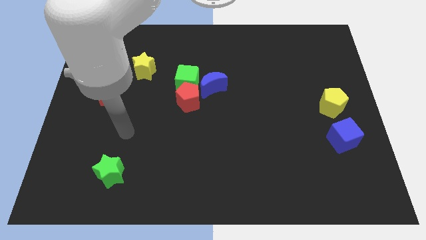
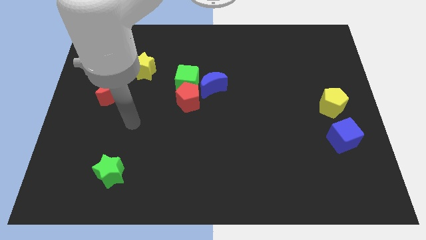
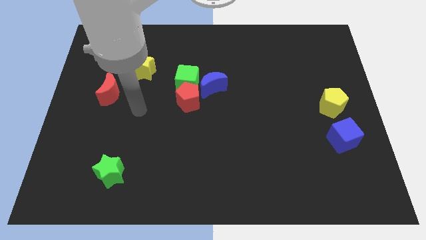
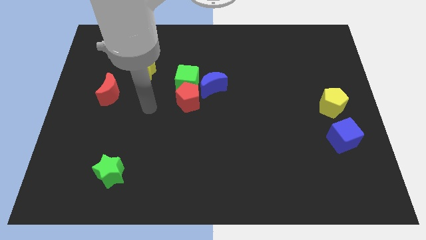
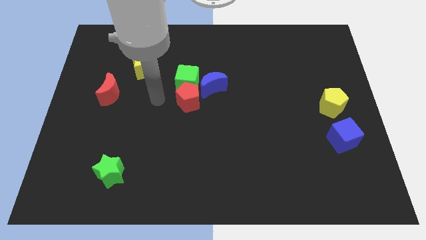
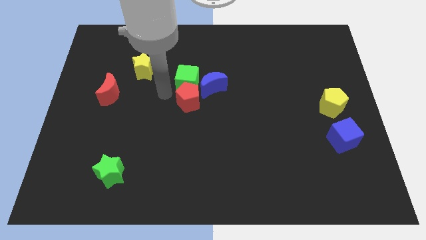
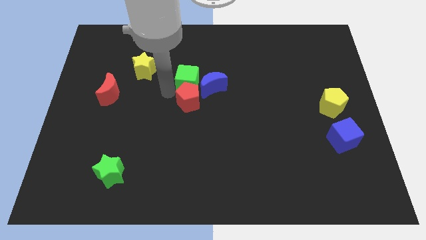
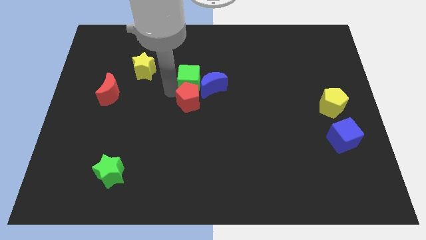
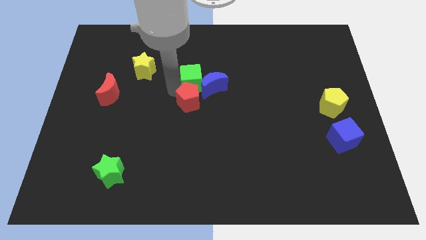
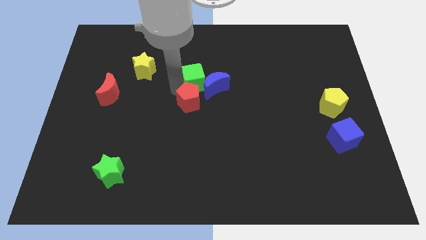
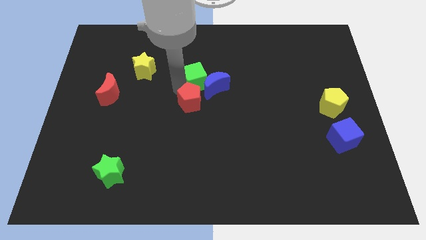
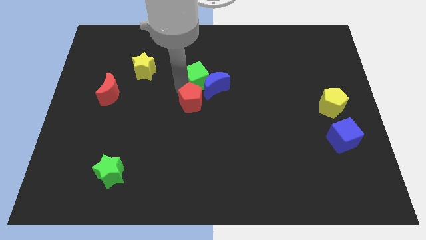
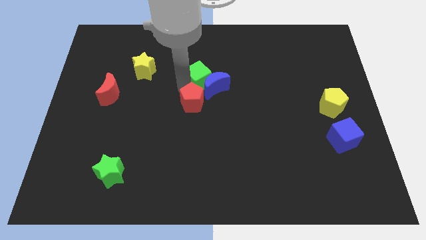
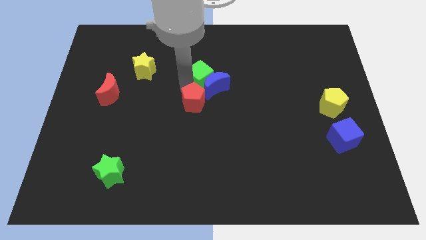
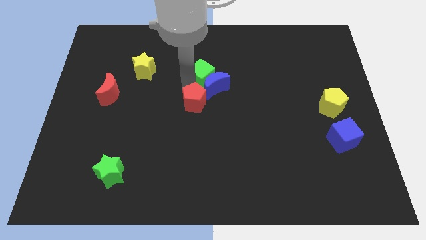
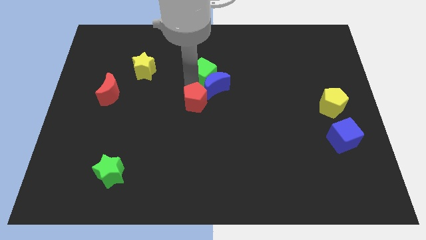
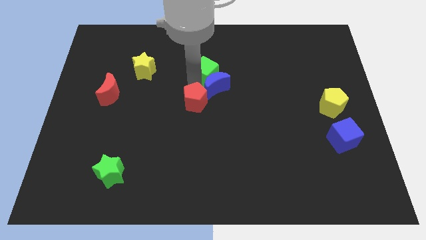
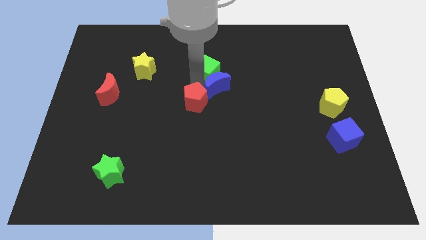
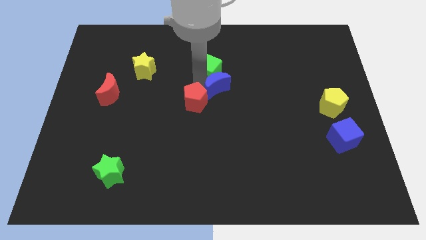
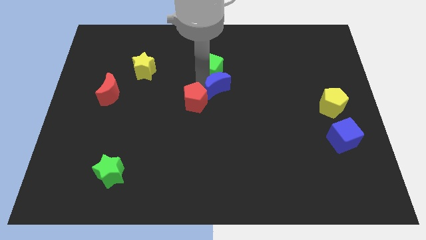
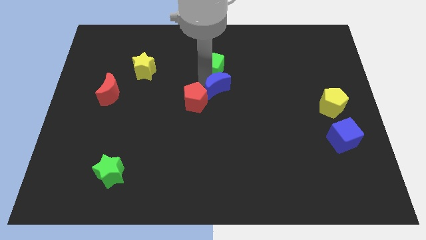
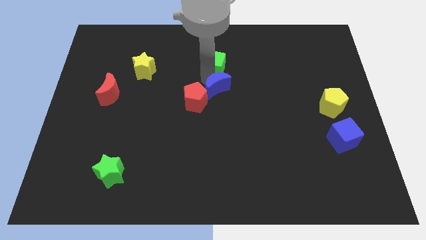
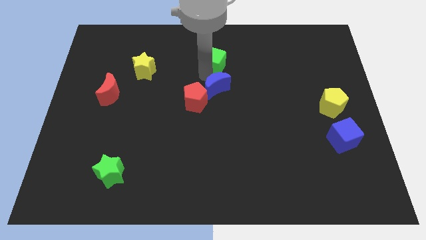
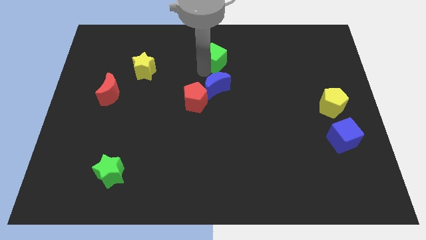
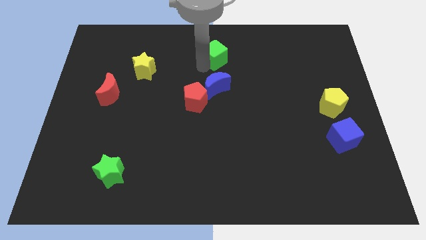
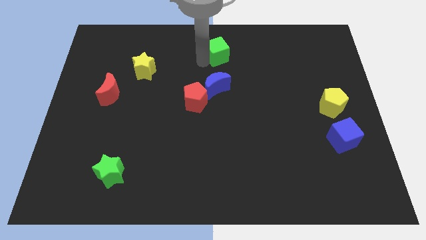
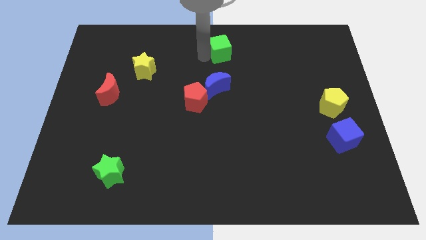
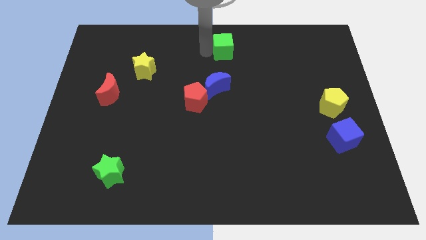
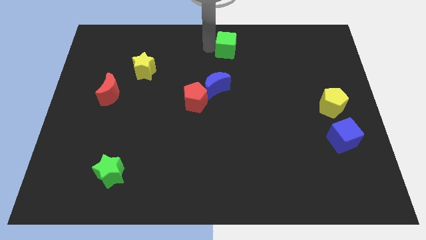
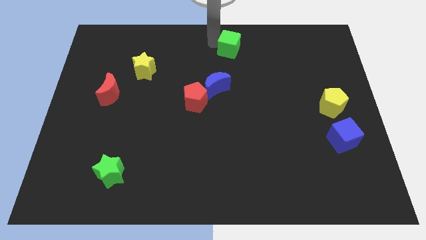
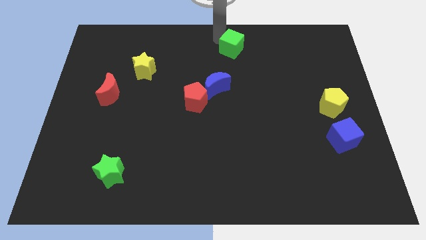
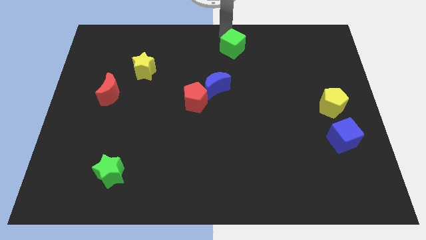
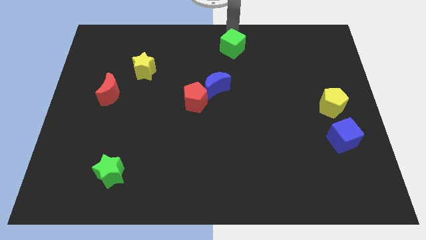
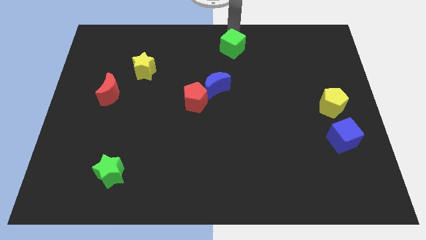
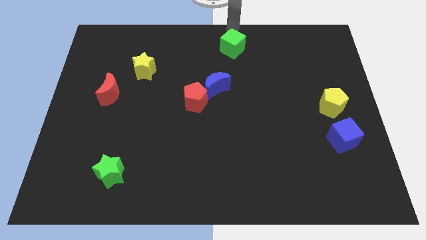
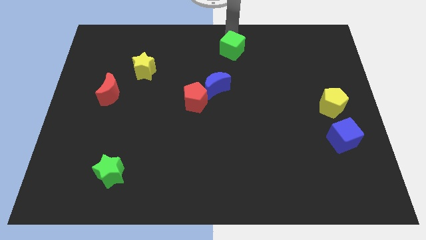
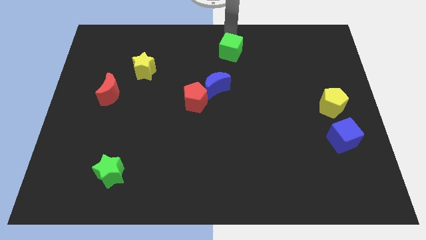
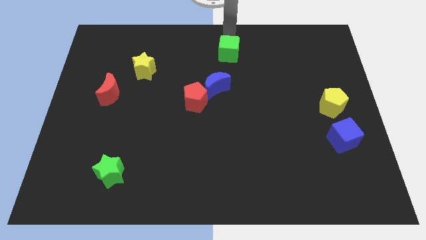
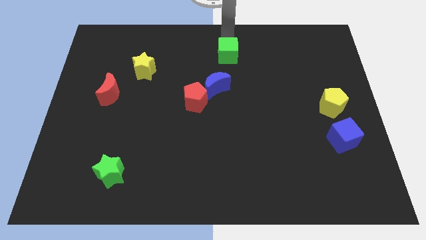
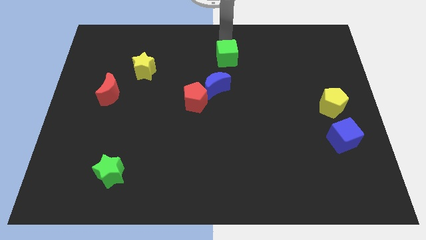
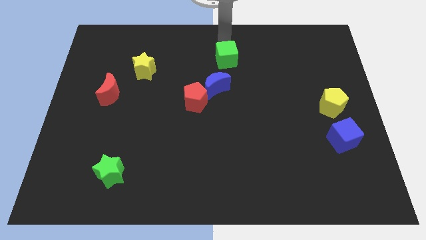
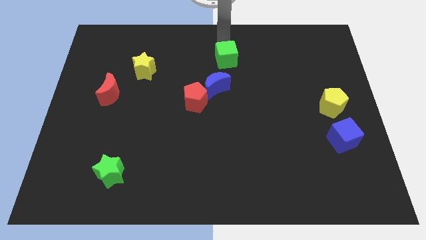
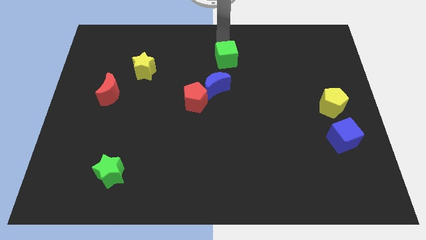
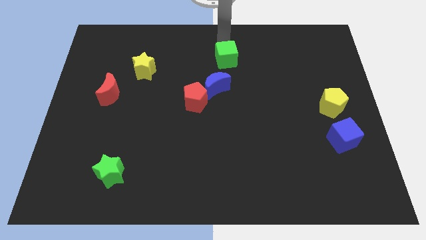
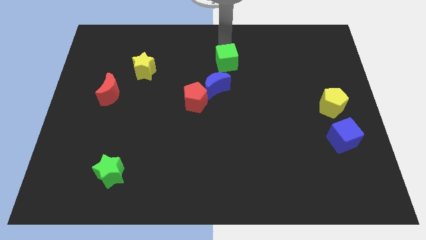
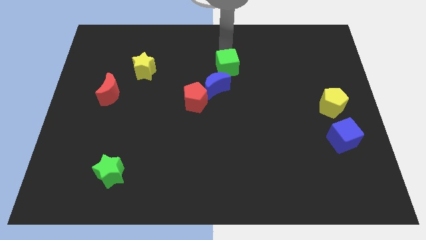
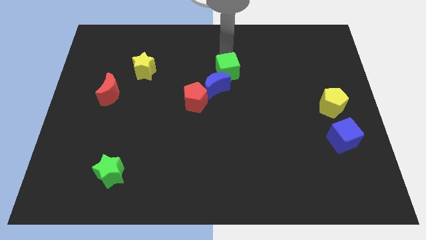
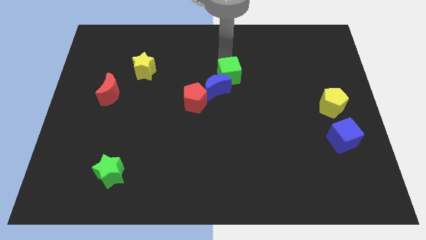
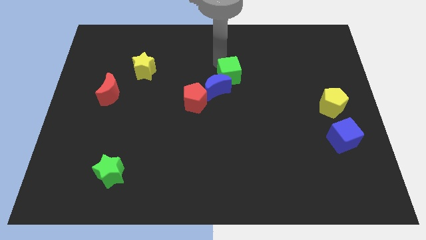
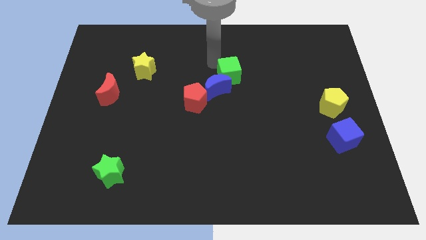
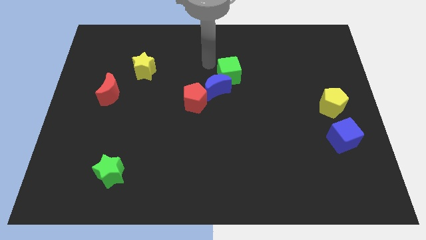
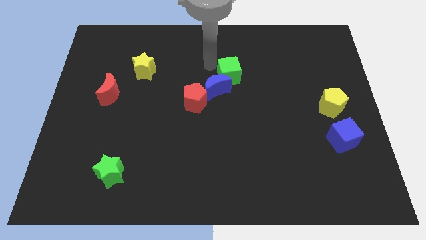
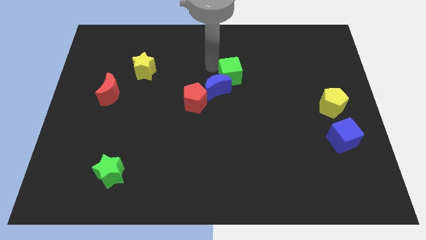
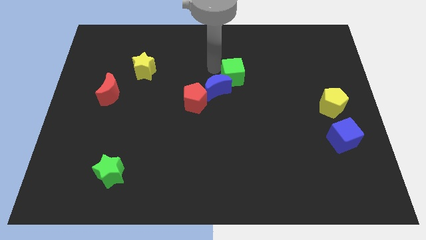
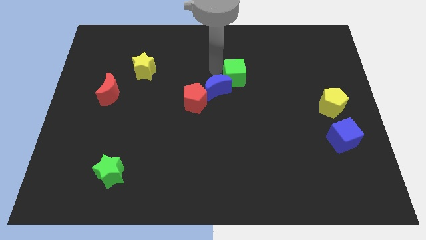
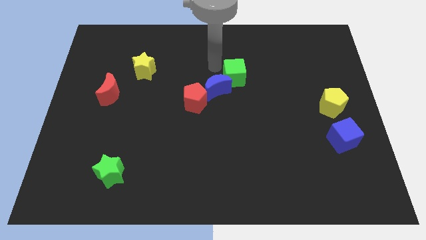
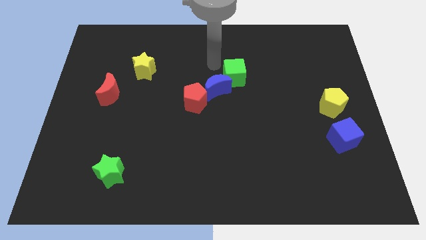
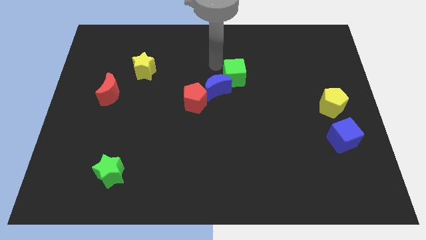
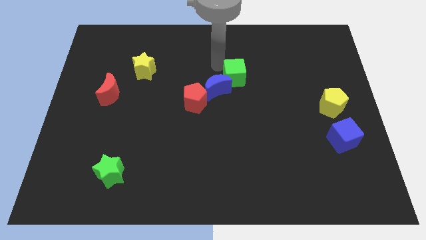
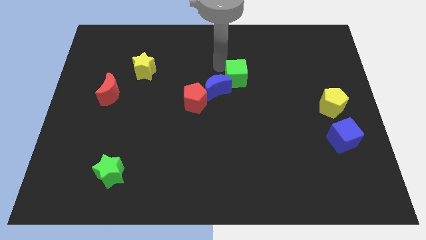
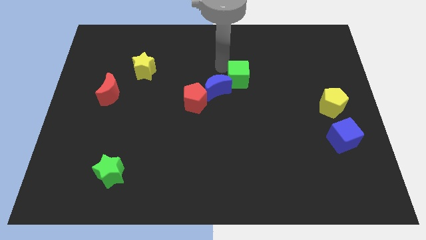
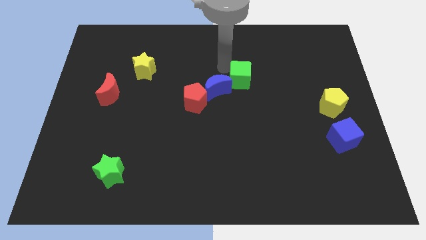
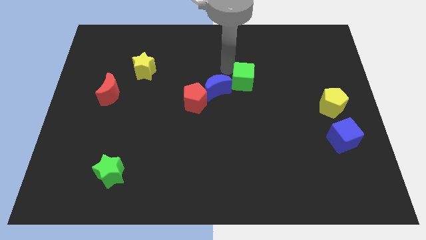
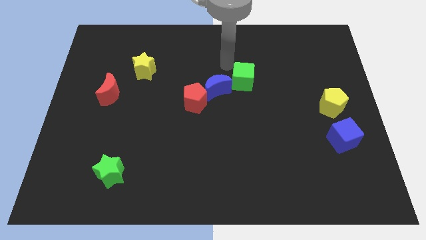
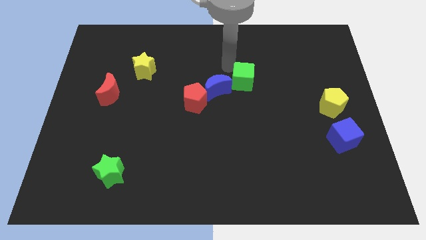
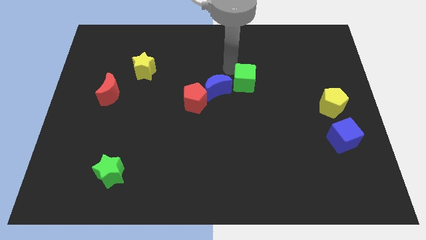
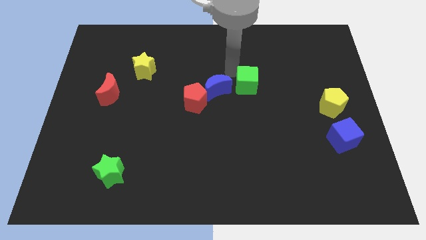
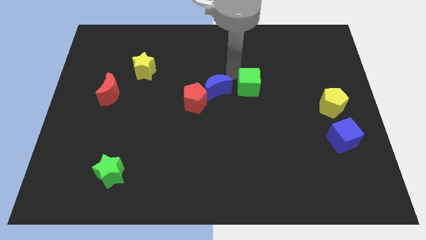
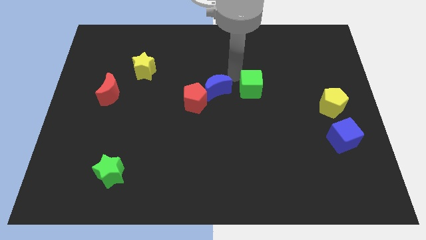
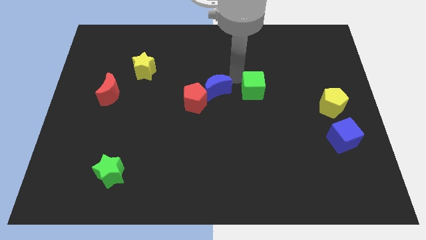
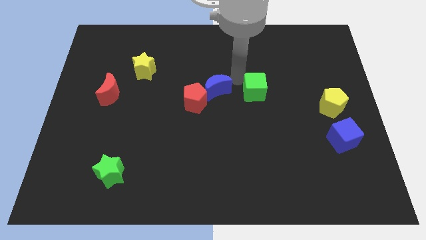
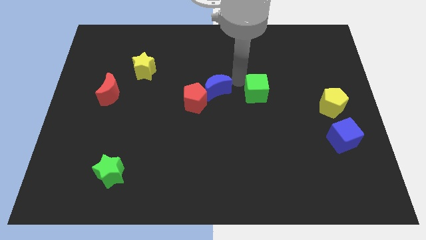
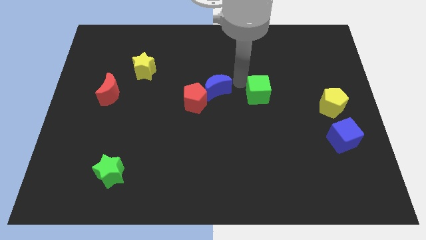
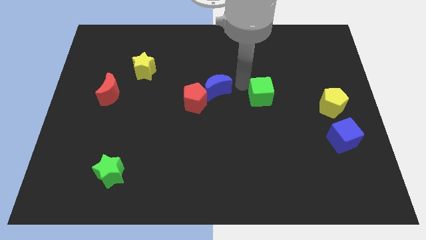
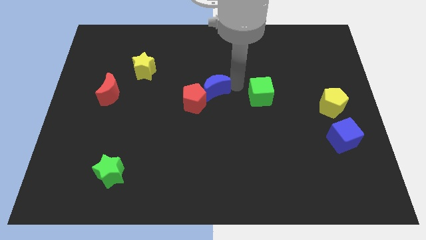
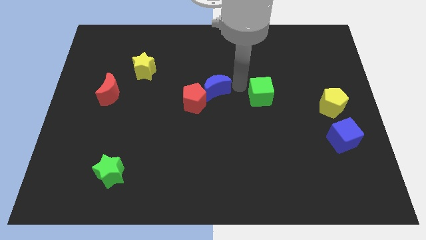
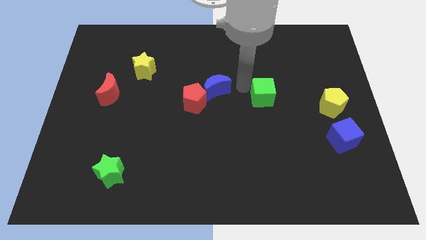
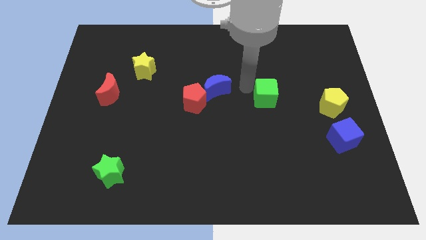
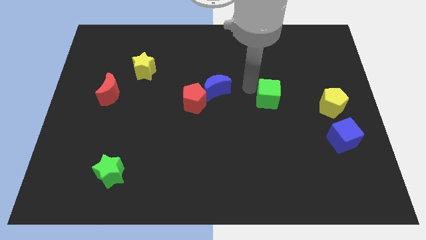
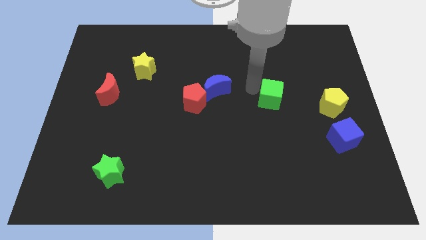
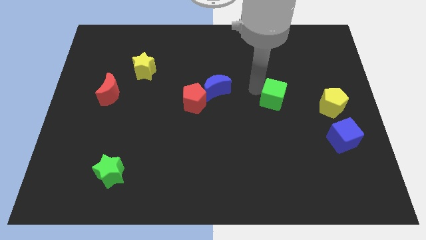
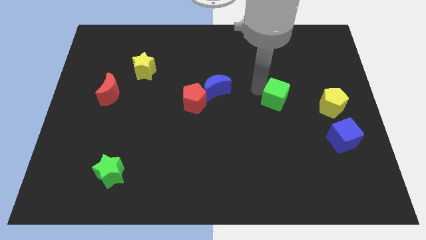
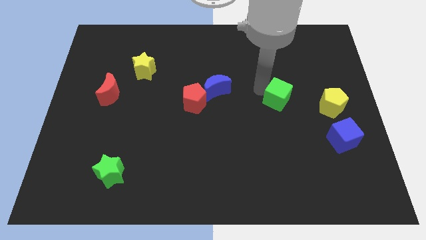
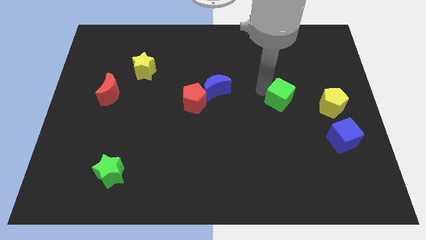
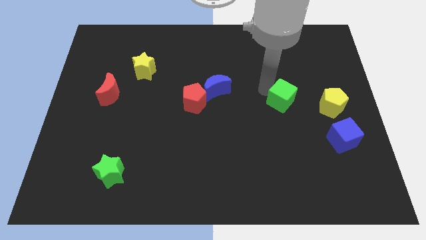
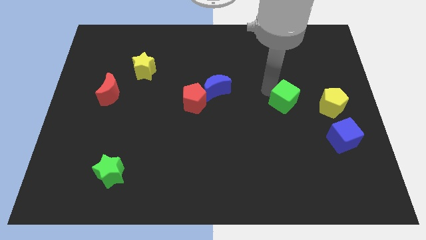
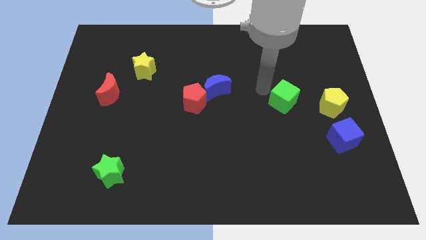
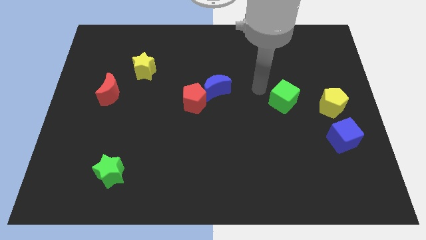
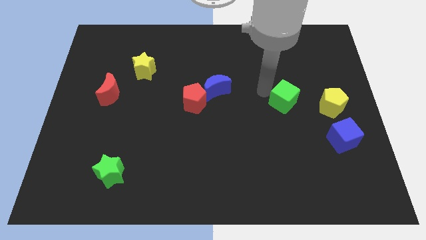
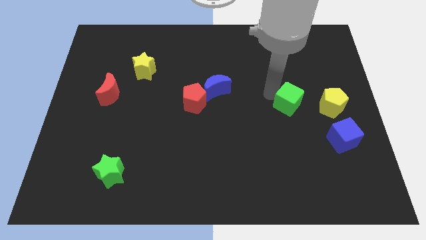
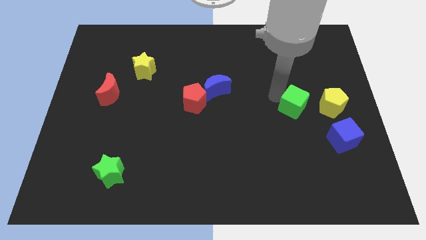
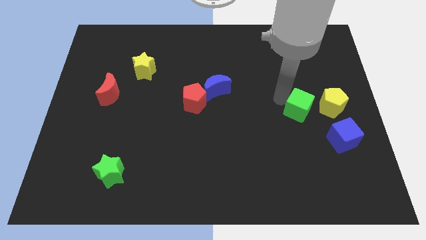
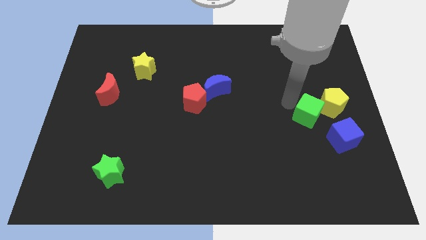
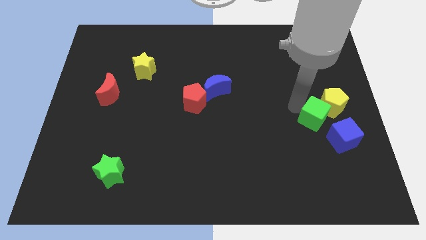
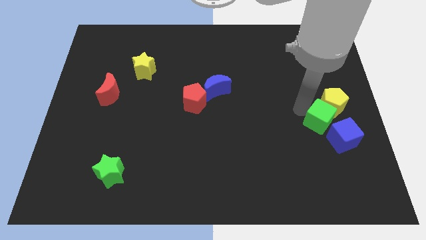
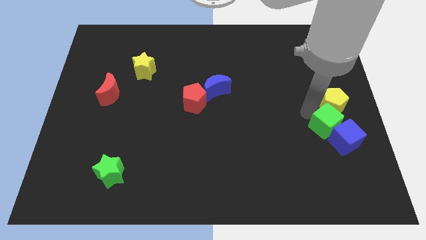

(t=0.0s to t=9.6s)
move the green cube to the blue cube
